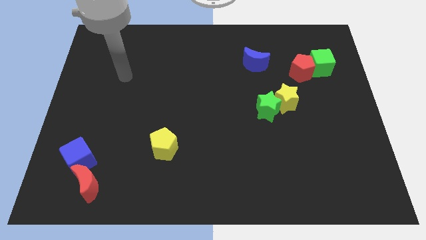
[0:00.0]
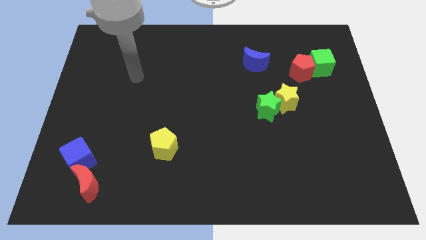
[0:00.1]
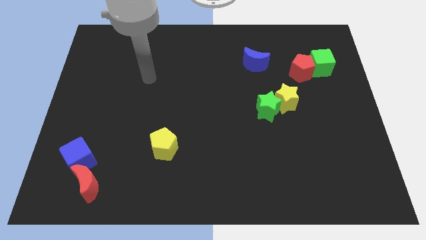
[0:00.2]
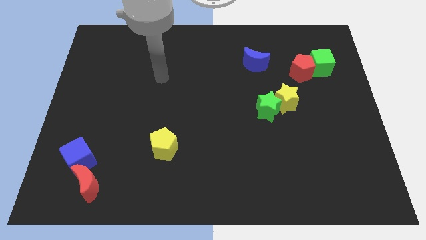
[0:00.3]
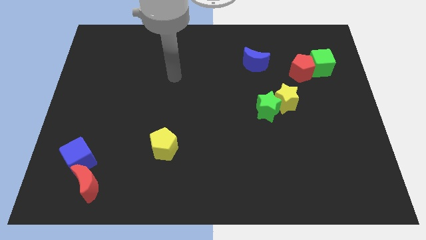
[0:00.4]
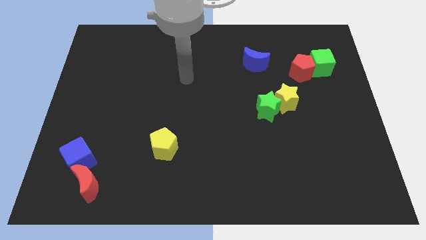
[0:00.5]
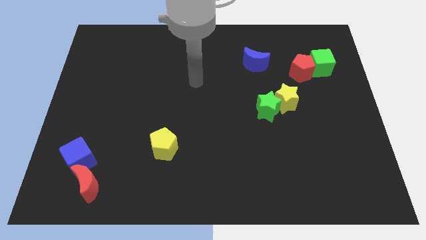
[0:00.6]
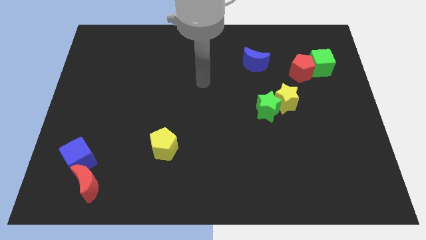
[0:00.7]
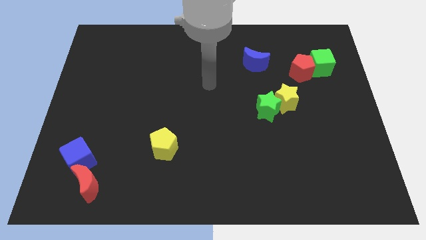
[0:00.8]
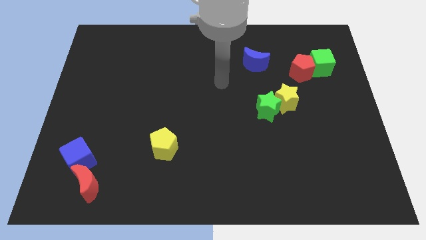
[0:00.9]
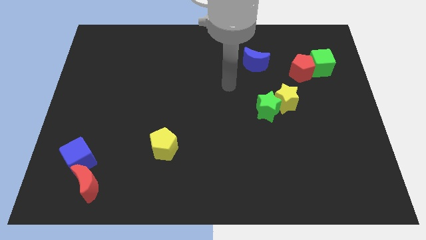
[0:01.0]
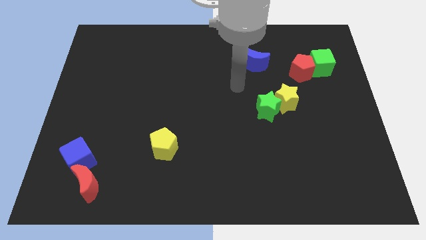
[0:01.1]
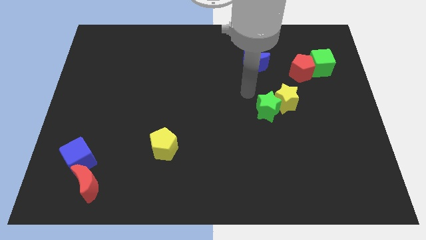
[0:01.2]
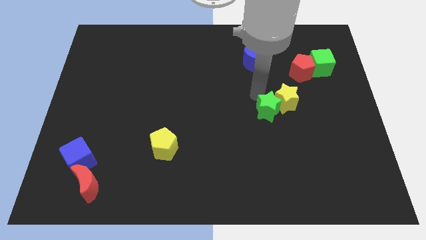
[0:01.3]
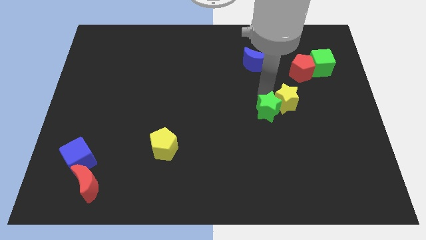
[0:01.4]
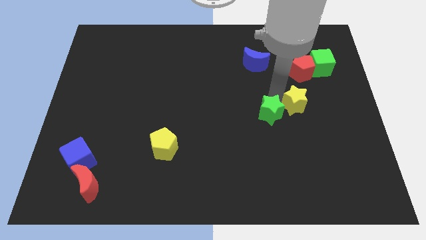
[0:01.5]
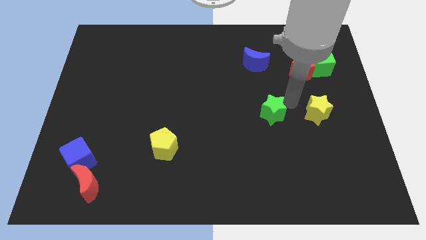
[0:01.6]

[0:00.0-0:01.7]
separate the green star from the yellow star

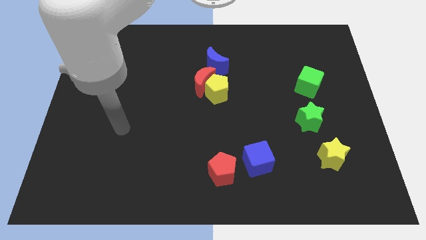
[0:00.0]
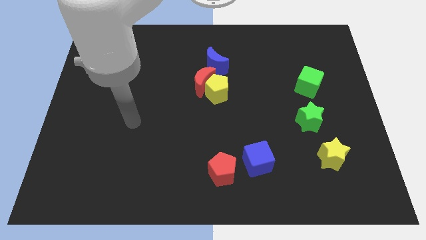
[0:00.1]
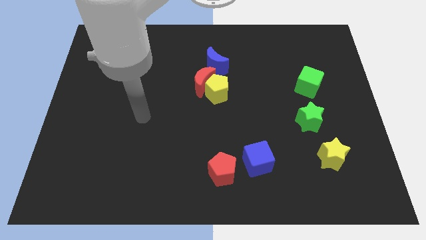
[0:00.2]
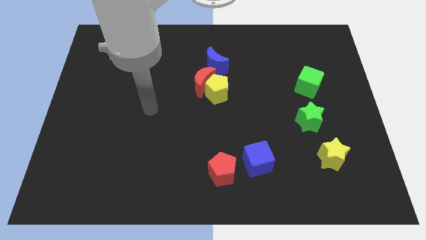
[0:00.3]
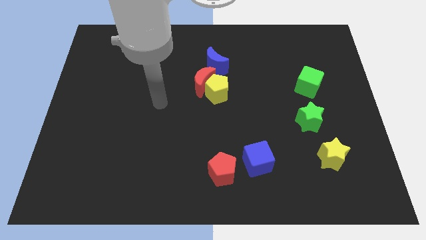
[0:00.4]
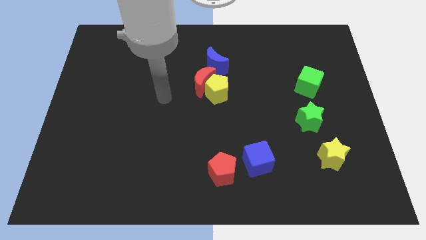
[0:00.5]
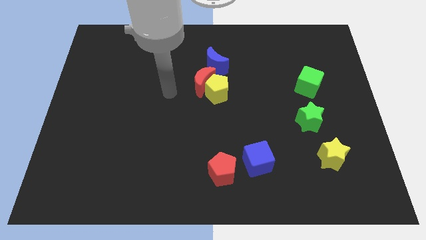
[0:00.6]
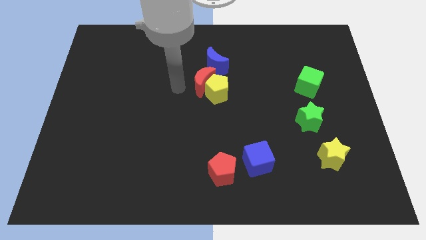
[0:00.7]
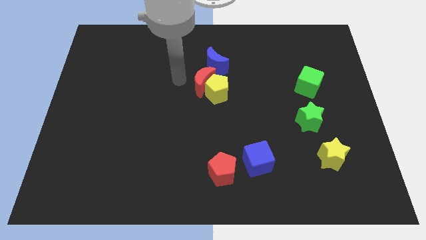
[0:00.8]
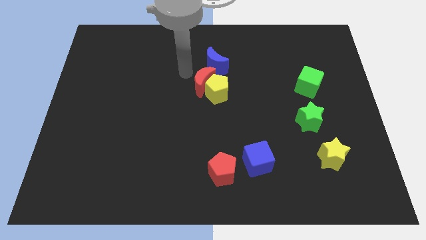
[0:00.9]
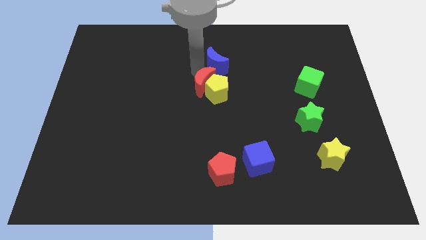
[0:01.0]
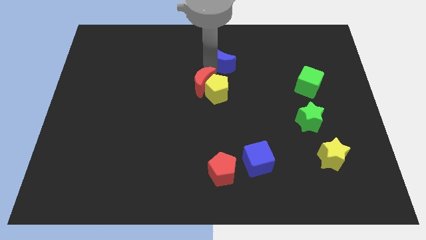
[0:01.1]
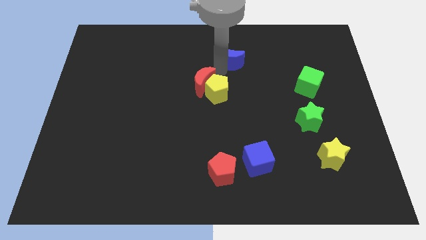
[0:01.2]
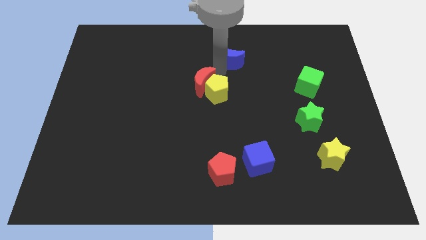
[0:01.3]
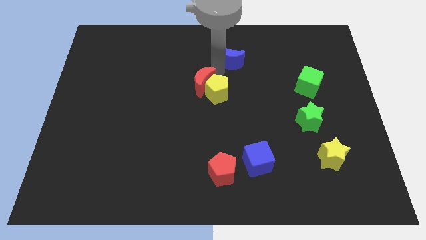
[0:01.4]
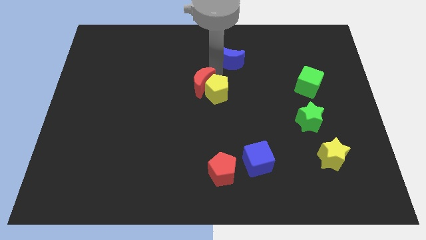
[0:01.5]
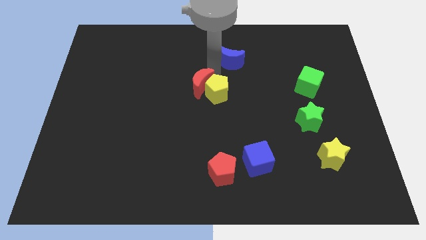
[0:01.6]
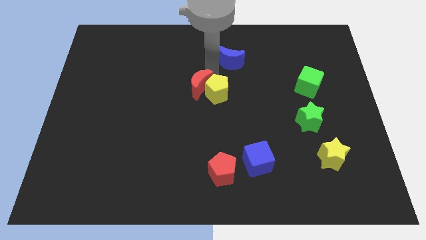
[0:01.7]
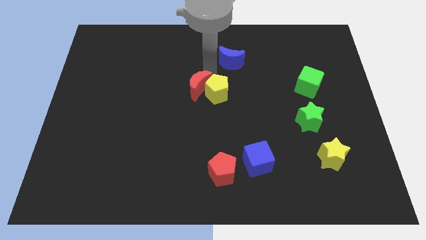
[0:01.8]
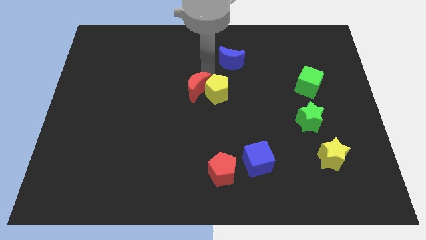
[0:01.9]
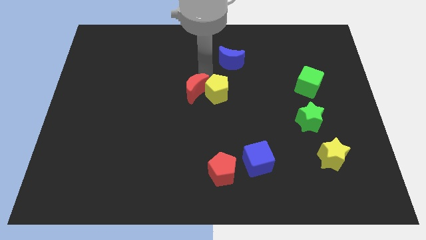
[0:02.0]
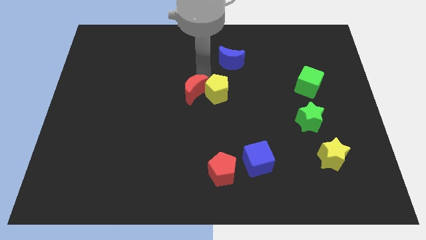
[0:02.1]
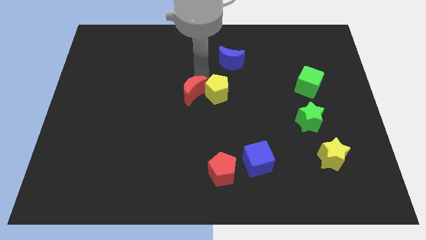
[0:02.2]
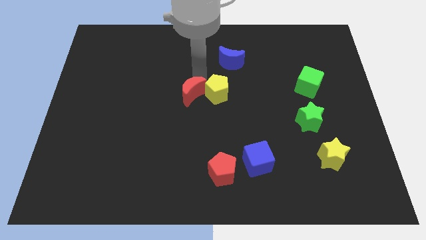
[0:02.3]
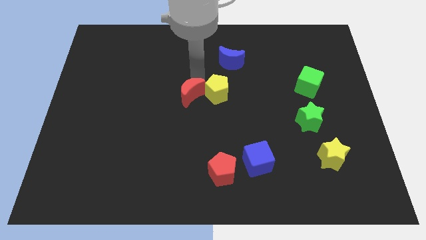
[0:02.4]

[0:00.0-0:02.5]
move the red moon away from the yellow pentagon and blue moon

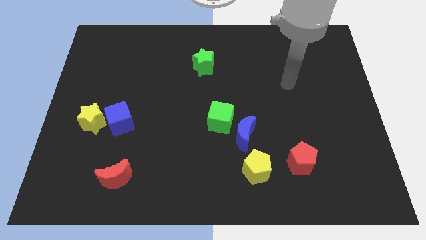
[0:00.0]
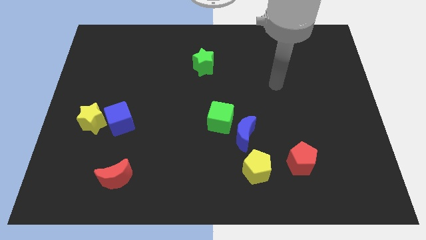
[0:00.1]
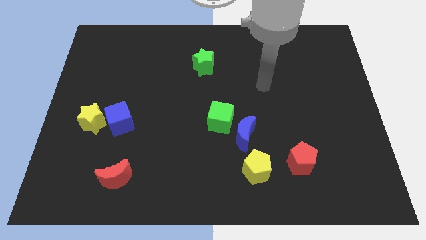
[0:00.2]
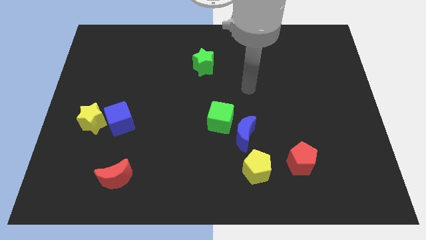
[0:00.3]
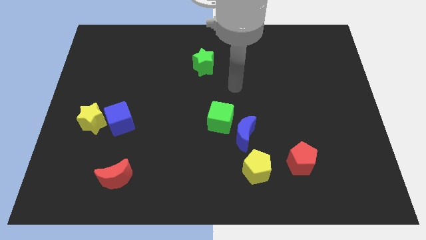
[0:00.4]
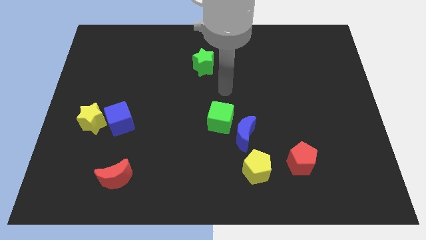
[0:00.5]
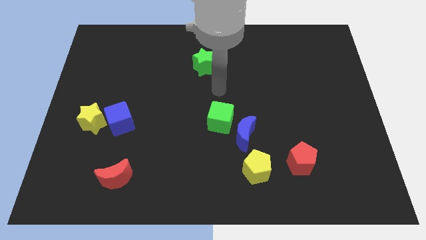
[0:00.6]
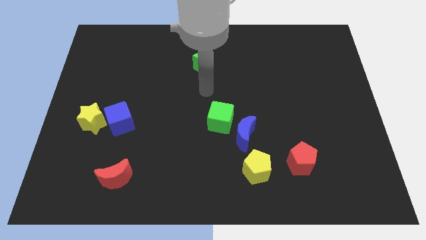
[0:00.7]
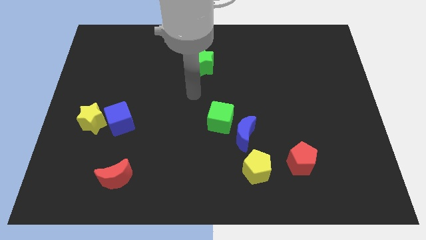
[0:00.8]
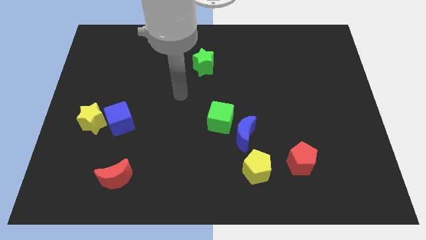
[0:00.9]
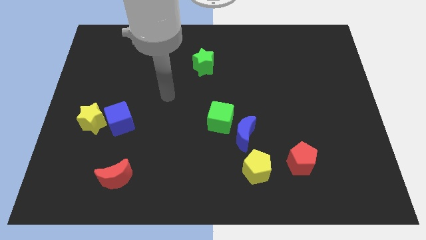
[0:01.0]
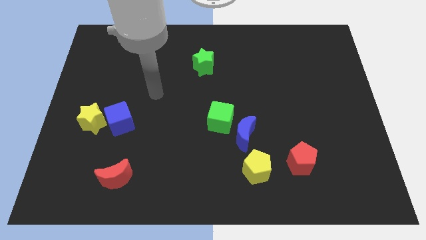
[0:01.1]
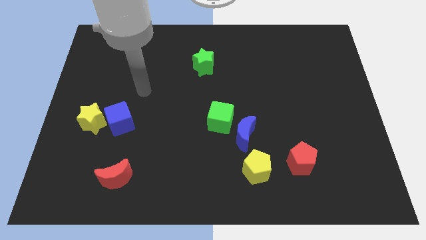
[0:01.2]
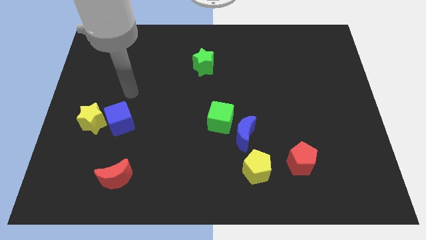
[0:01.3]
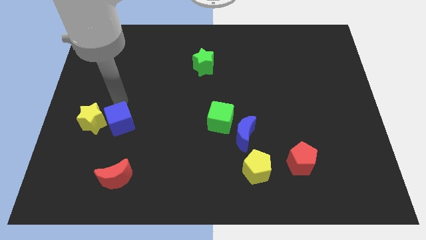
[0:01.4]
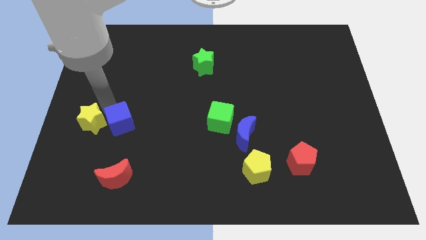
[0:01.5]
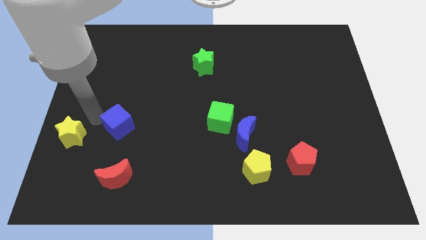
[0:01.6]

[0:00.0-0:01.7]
pull the blue cube apart from the yellow star

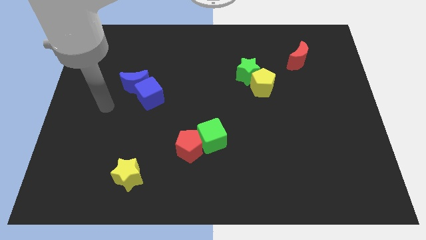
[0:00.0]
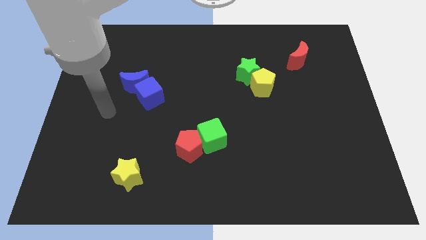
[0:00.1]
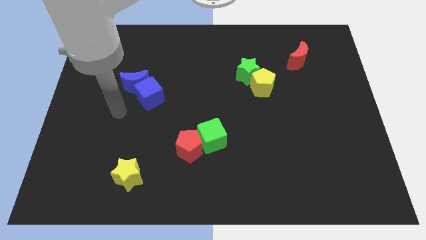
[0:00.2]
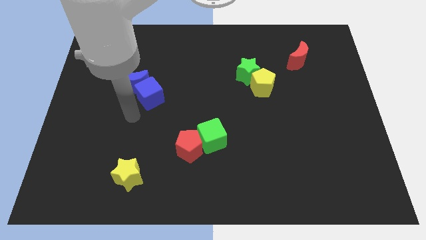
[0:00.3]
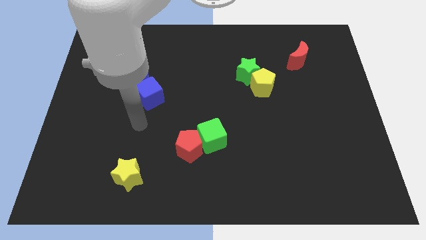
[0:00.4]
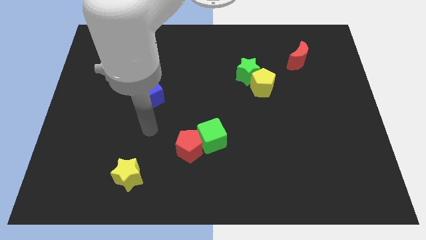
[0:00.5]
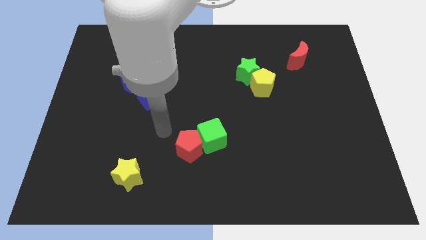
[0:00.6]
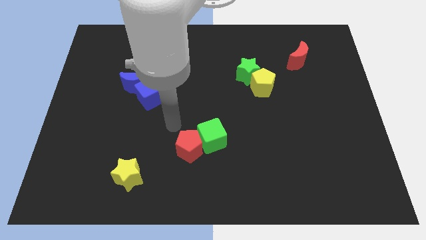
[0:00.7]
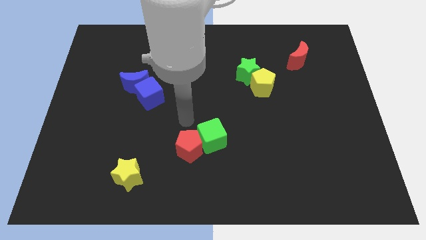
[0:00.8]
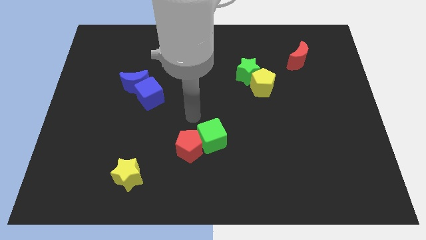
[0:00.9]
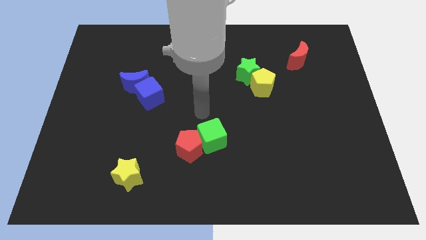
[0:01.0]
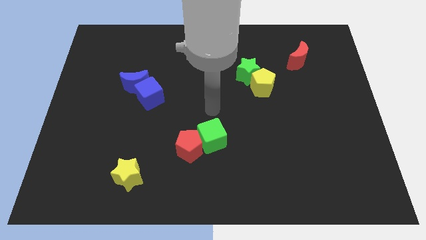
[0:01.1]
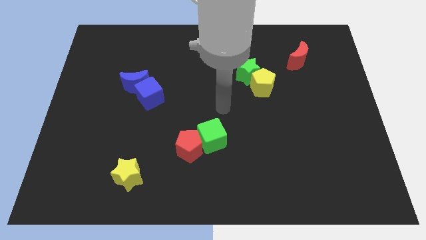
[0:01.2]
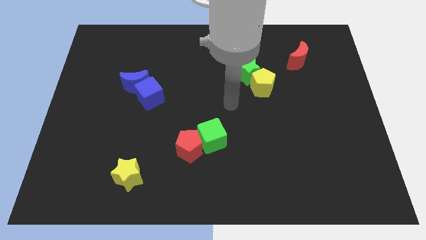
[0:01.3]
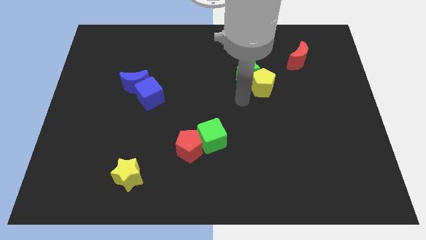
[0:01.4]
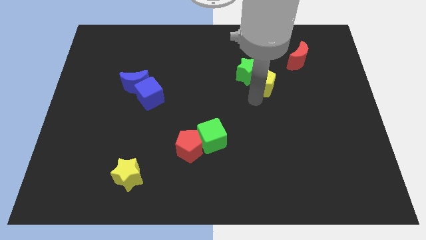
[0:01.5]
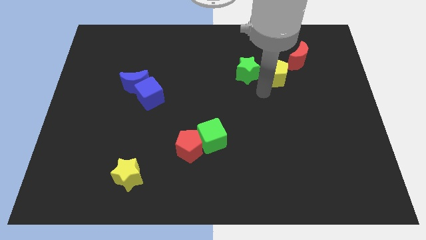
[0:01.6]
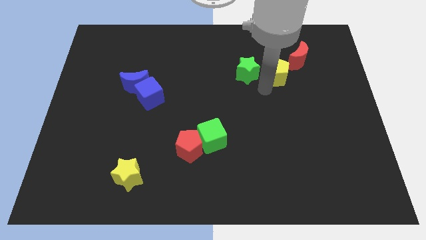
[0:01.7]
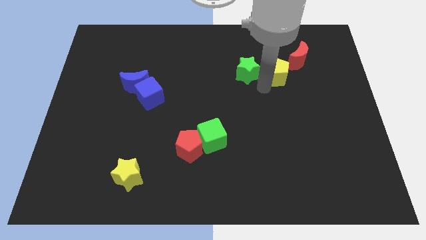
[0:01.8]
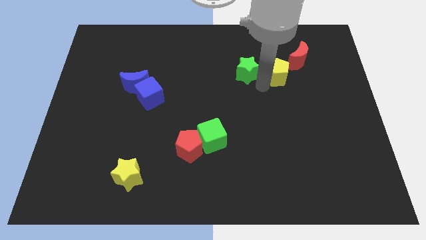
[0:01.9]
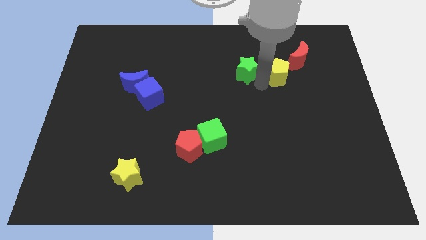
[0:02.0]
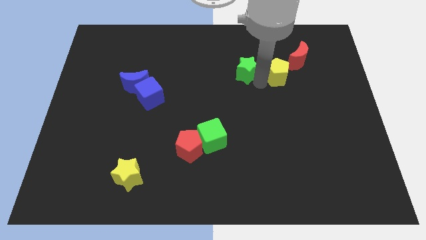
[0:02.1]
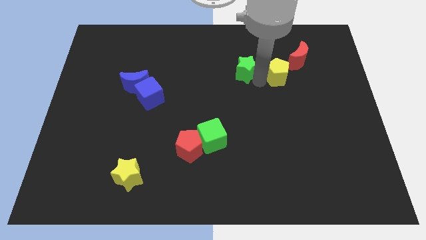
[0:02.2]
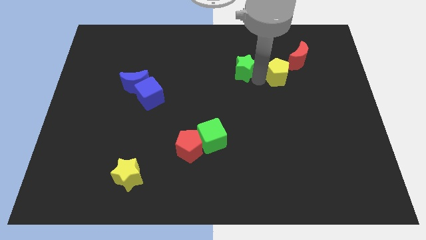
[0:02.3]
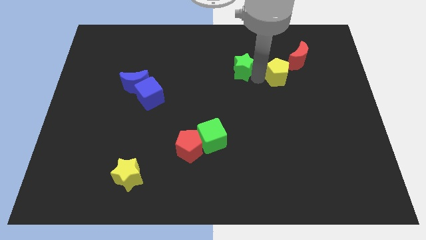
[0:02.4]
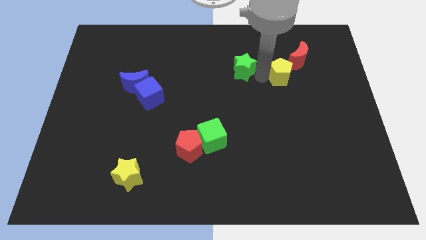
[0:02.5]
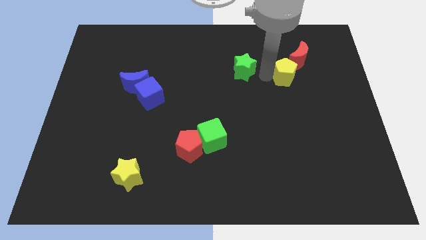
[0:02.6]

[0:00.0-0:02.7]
separate the green star from the yellow pentagon

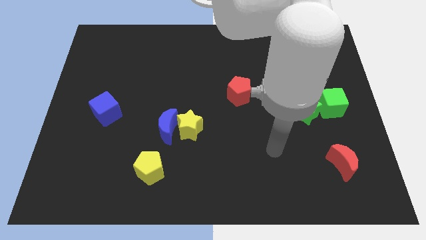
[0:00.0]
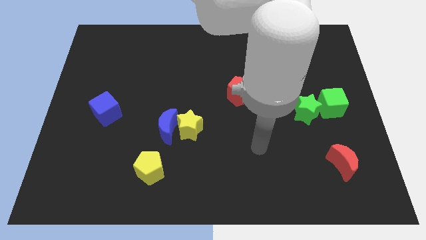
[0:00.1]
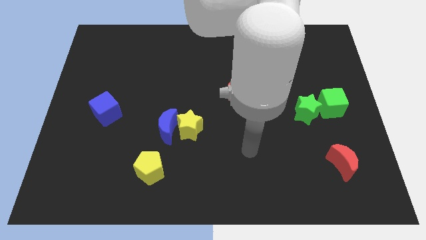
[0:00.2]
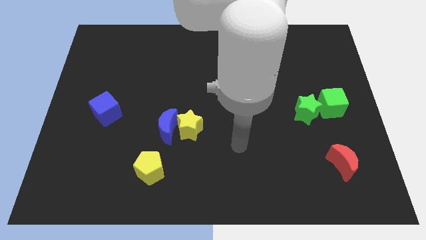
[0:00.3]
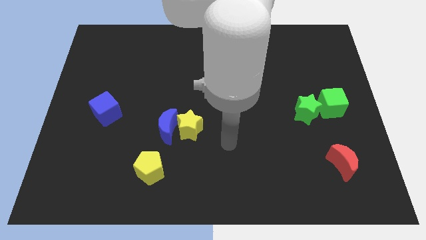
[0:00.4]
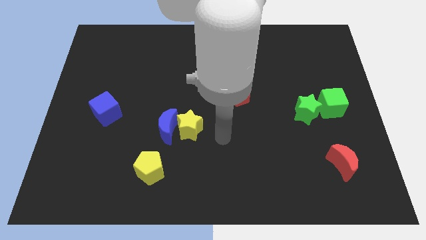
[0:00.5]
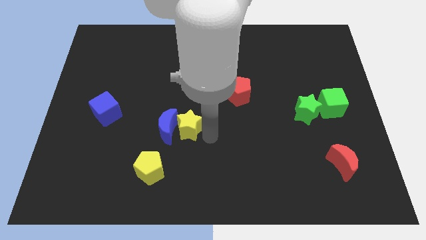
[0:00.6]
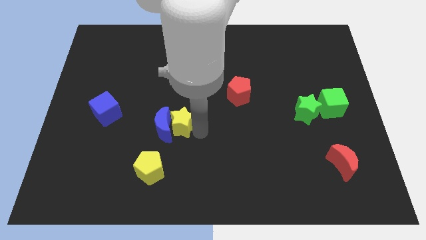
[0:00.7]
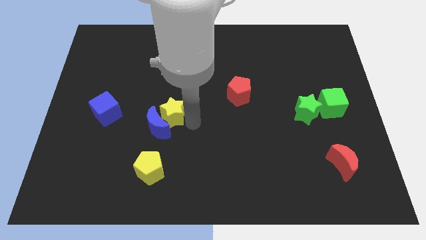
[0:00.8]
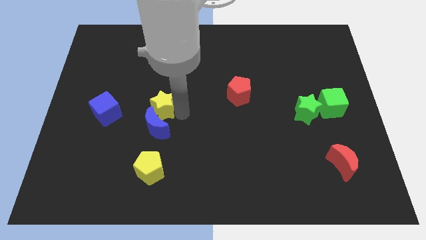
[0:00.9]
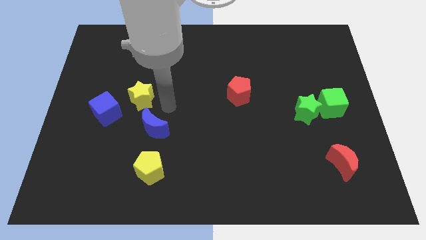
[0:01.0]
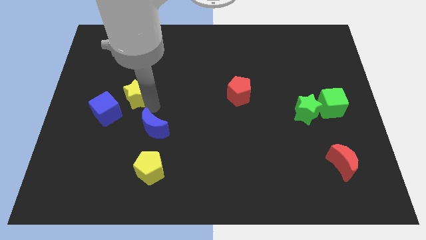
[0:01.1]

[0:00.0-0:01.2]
separate the blue moon from the yellow star
